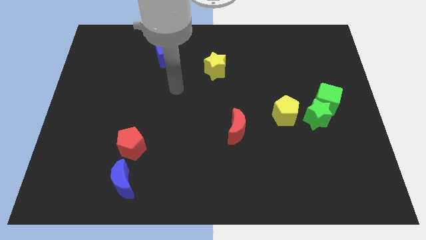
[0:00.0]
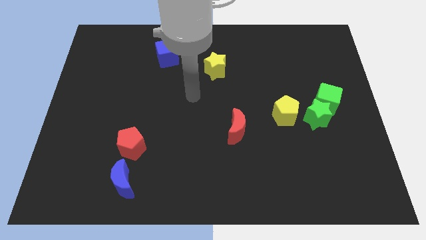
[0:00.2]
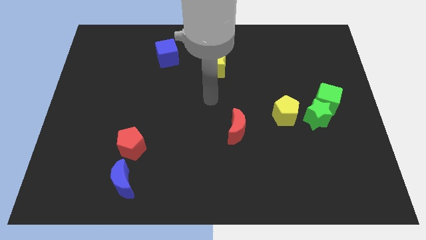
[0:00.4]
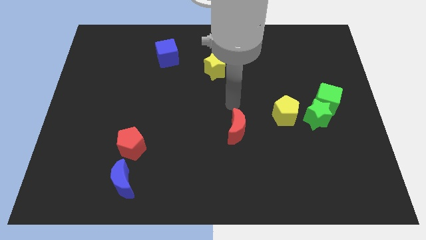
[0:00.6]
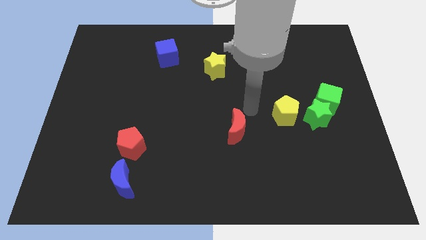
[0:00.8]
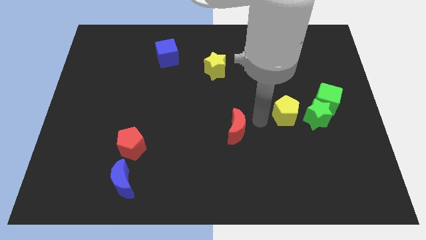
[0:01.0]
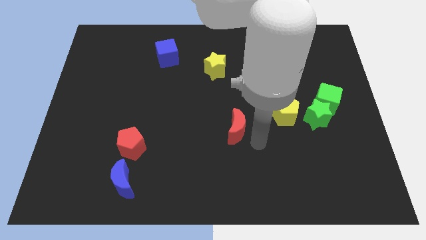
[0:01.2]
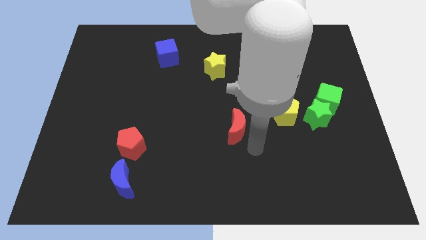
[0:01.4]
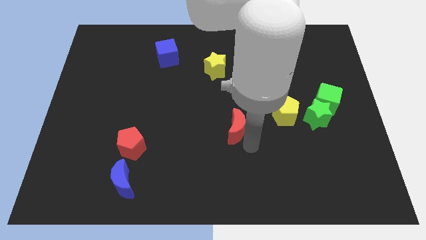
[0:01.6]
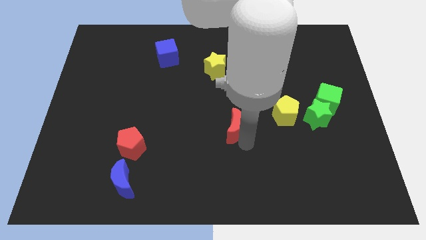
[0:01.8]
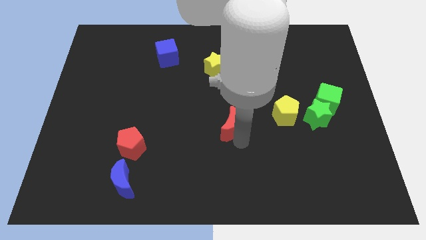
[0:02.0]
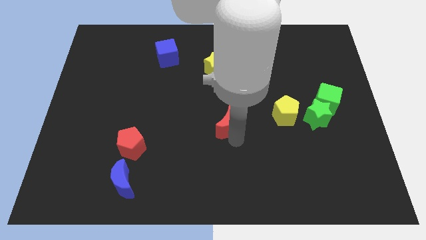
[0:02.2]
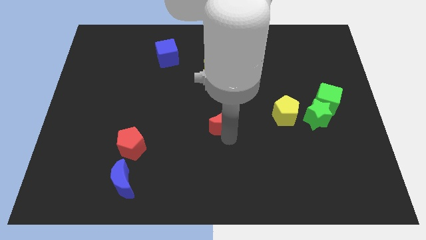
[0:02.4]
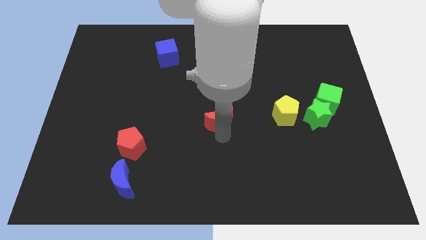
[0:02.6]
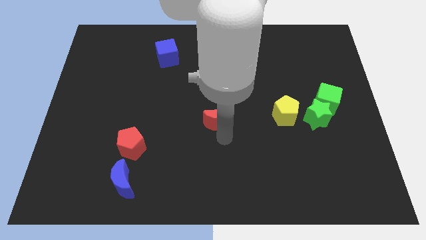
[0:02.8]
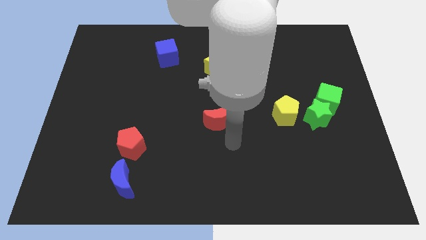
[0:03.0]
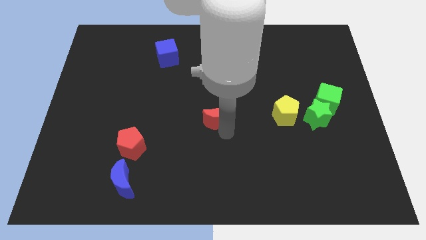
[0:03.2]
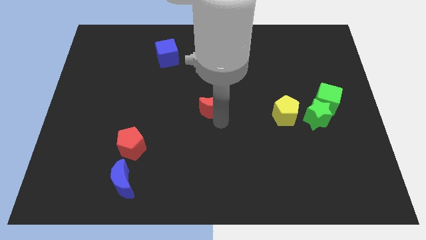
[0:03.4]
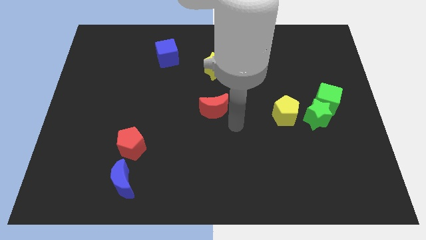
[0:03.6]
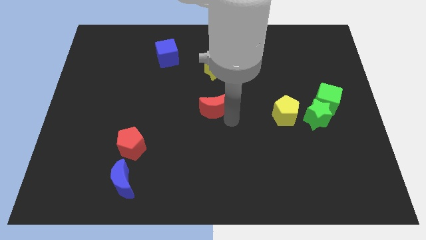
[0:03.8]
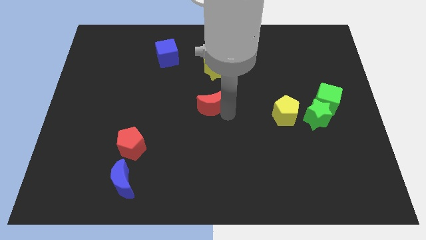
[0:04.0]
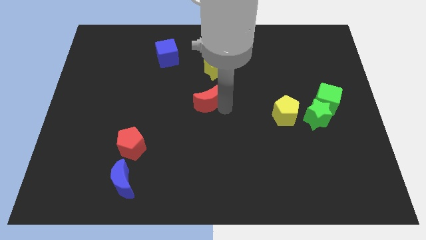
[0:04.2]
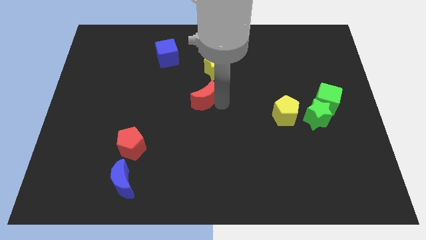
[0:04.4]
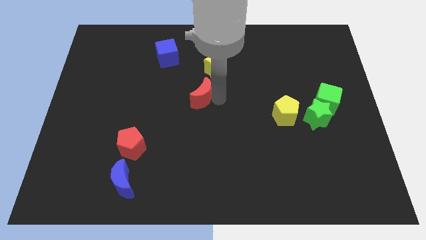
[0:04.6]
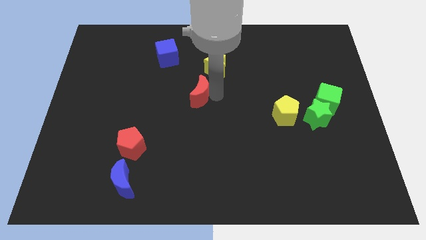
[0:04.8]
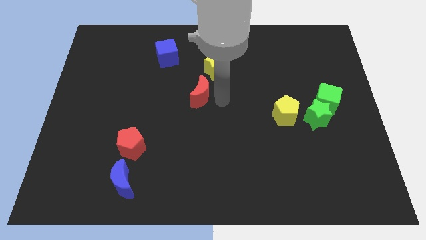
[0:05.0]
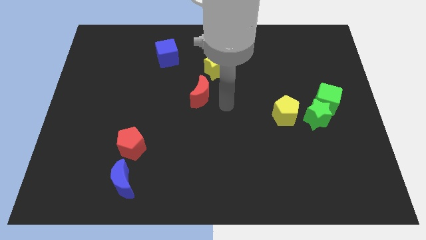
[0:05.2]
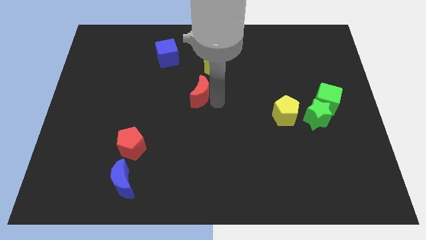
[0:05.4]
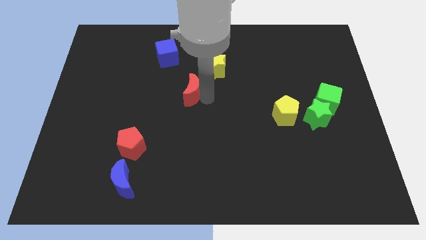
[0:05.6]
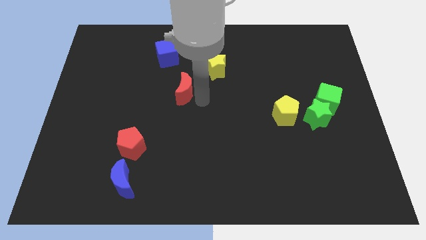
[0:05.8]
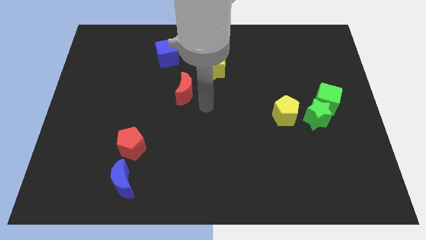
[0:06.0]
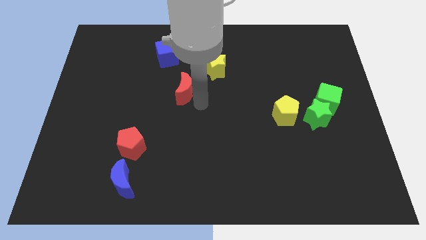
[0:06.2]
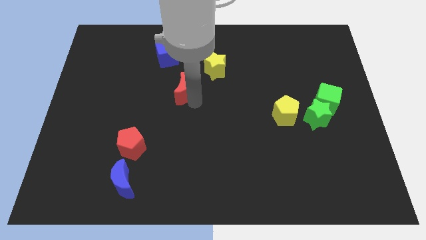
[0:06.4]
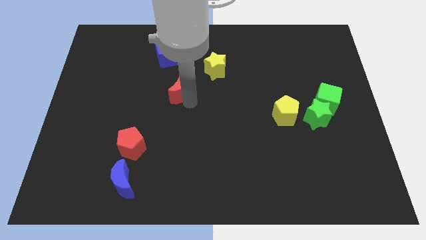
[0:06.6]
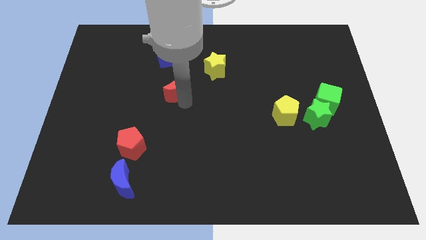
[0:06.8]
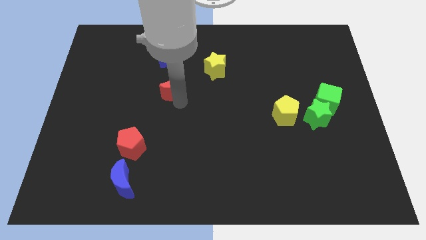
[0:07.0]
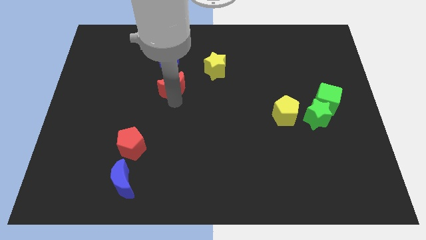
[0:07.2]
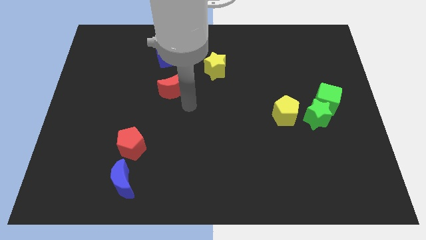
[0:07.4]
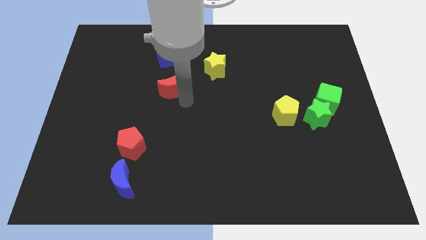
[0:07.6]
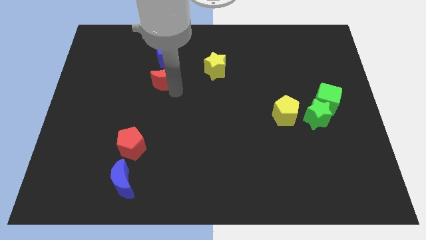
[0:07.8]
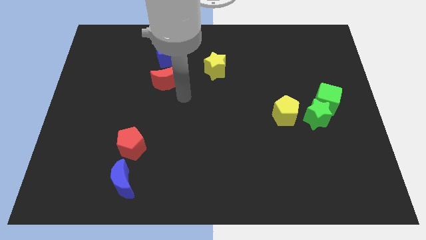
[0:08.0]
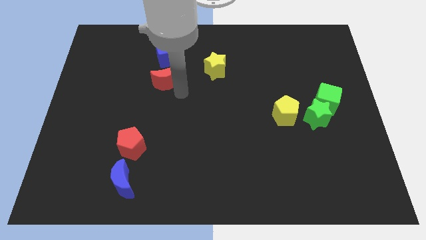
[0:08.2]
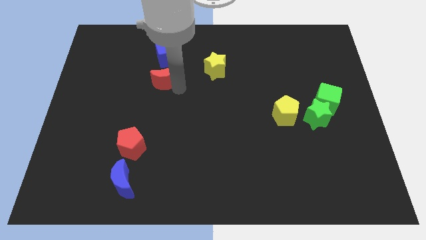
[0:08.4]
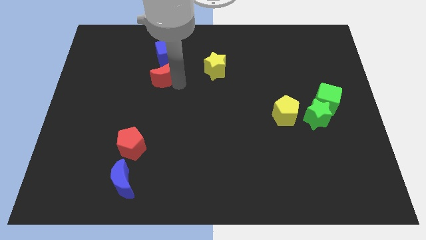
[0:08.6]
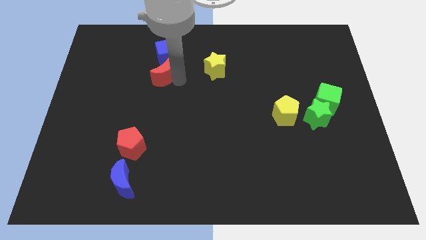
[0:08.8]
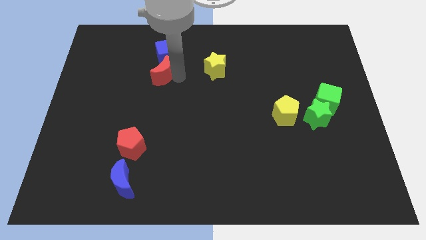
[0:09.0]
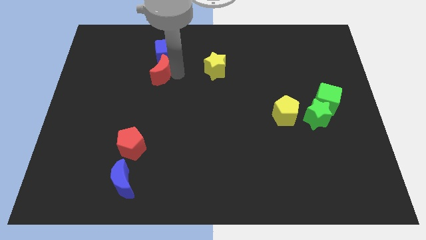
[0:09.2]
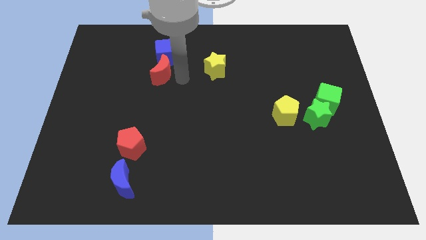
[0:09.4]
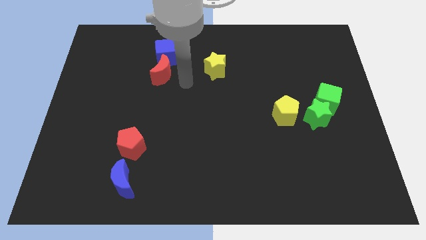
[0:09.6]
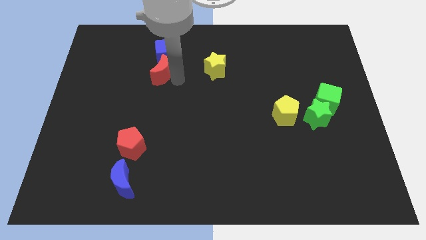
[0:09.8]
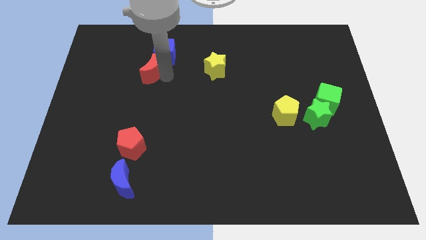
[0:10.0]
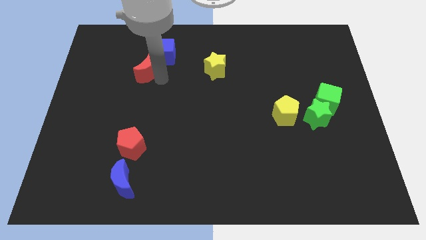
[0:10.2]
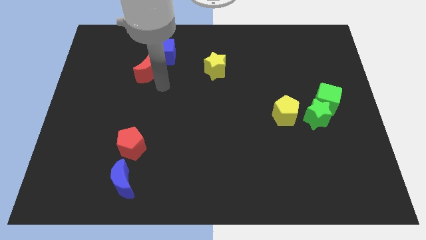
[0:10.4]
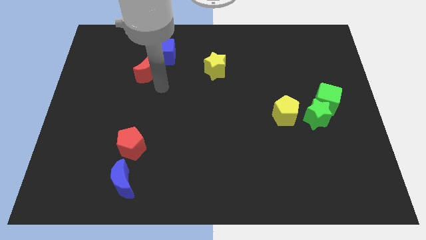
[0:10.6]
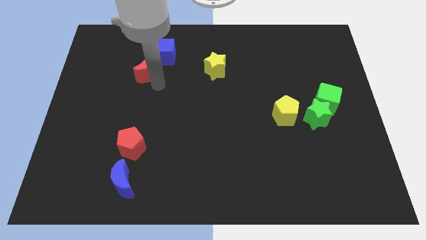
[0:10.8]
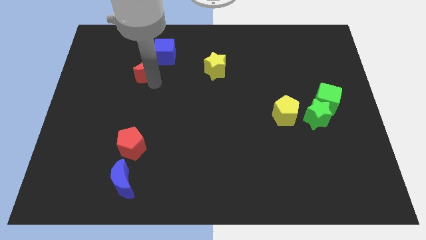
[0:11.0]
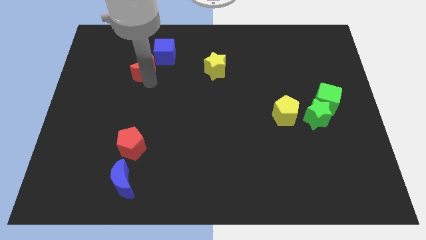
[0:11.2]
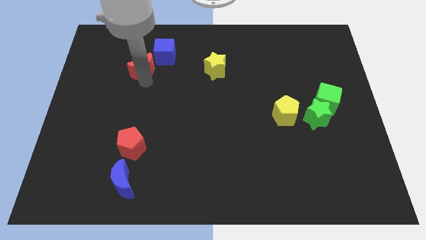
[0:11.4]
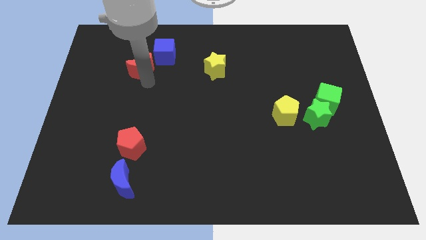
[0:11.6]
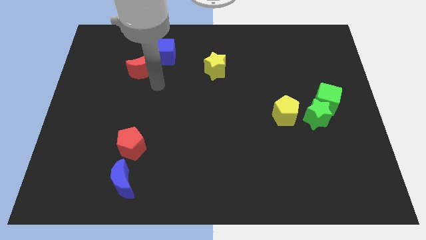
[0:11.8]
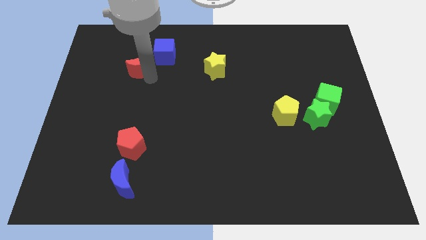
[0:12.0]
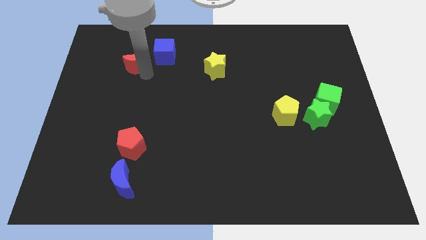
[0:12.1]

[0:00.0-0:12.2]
put the red moon left of the blue cube

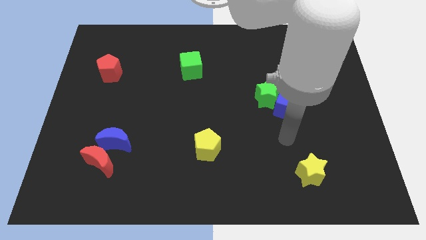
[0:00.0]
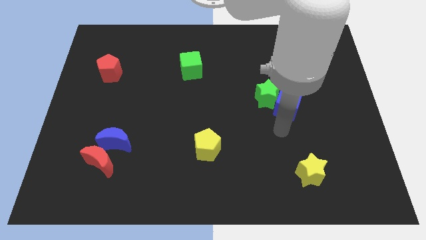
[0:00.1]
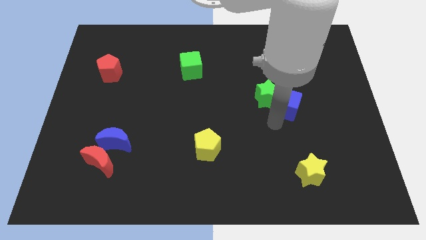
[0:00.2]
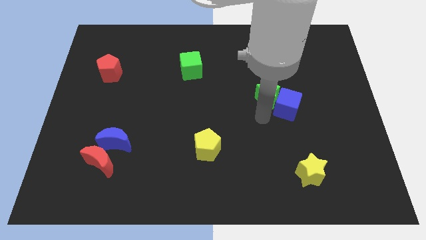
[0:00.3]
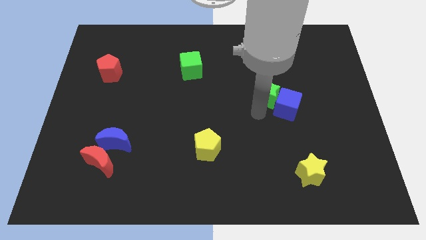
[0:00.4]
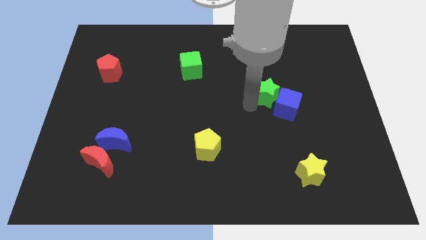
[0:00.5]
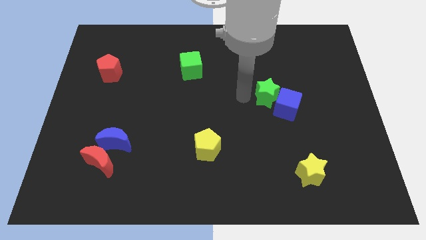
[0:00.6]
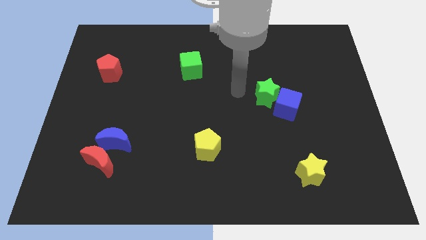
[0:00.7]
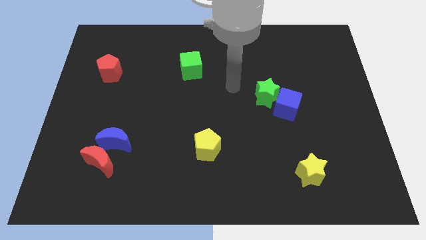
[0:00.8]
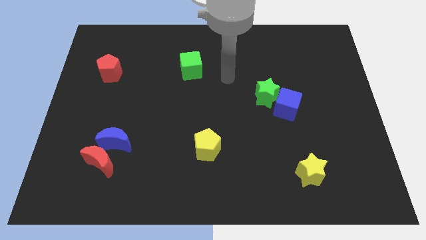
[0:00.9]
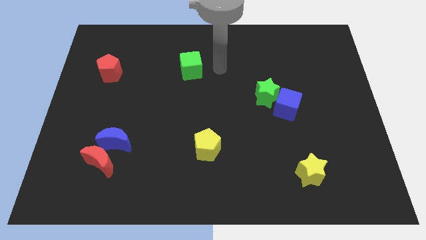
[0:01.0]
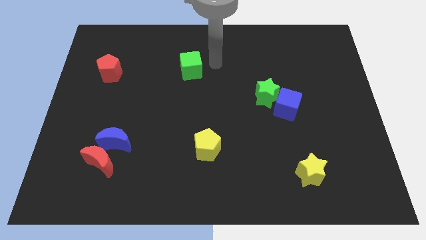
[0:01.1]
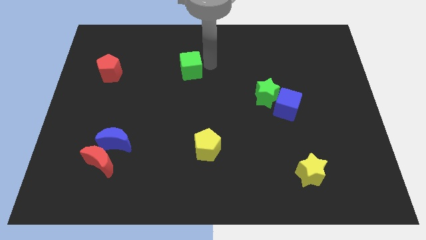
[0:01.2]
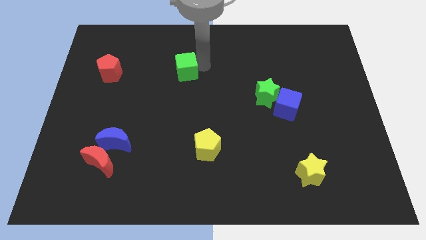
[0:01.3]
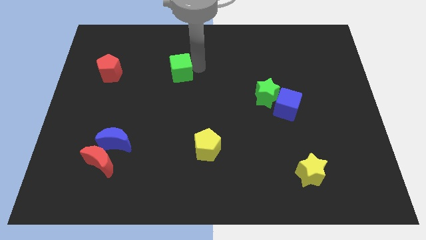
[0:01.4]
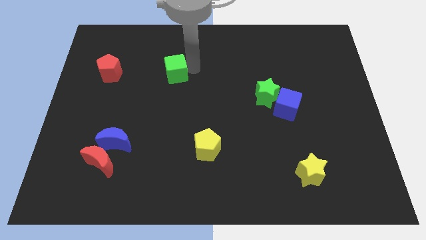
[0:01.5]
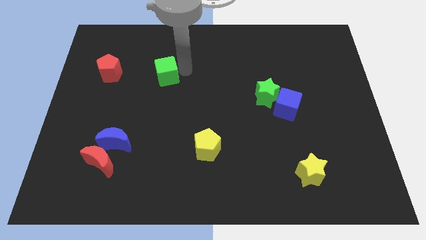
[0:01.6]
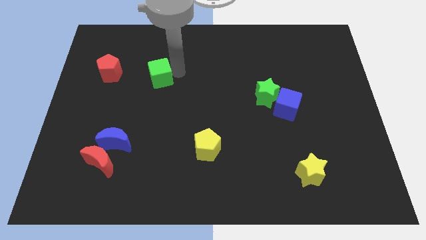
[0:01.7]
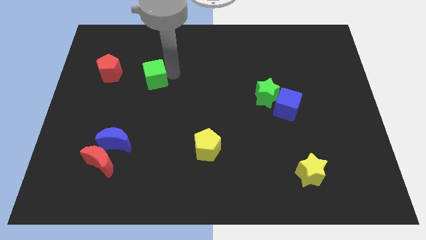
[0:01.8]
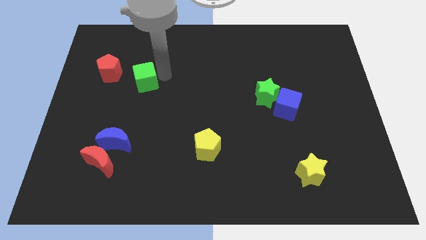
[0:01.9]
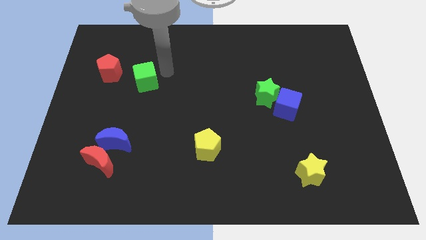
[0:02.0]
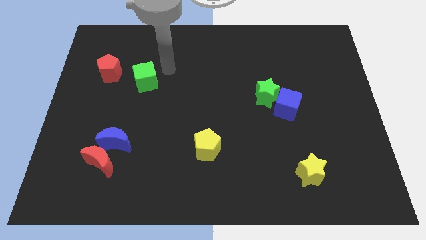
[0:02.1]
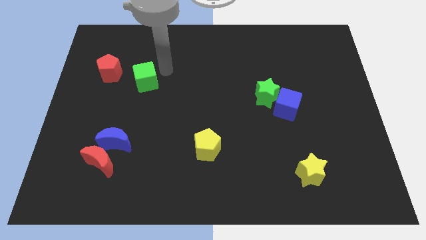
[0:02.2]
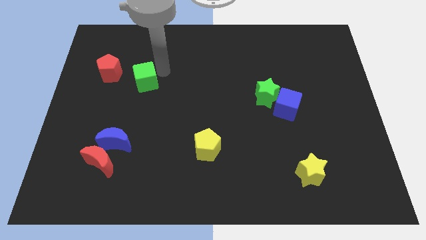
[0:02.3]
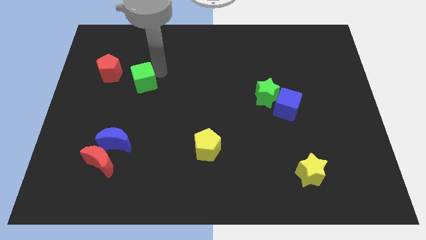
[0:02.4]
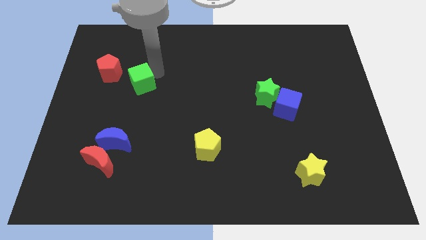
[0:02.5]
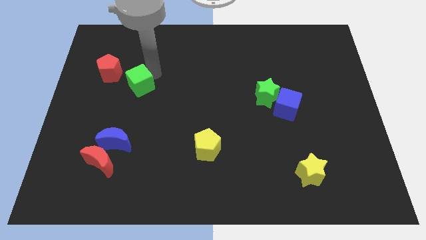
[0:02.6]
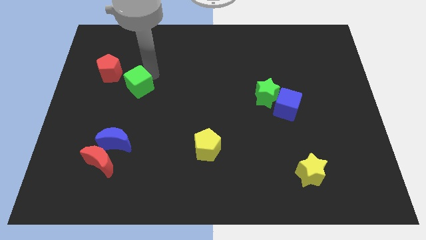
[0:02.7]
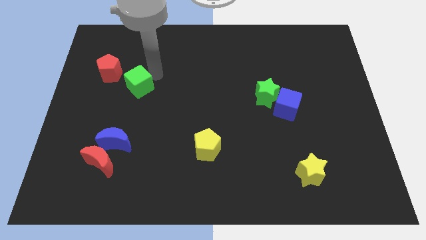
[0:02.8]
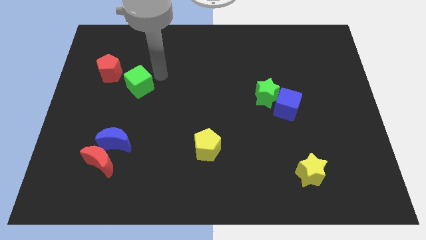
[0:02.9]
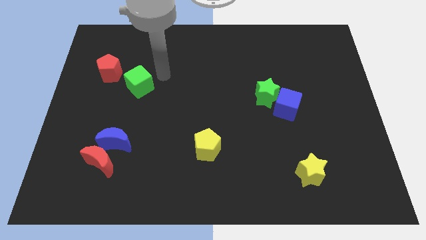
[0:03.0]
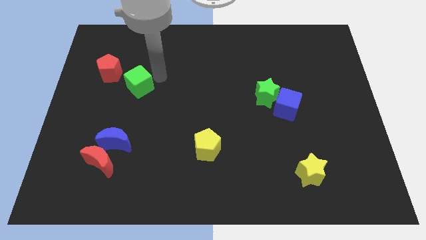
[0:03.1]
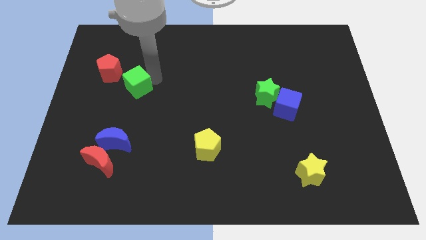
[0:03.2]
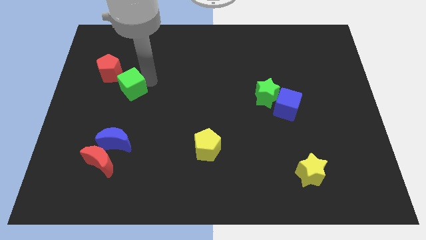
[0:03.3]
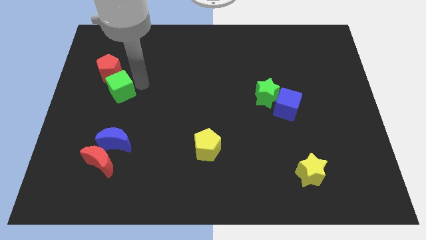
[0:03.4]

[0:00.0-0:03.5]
push the green cube to the bottom of the red pentagon
